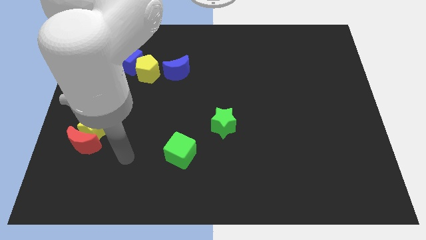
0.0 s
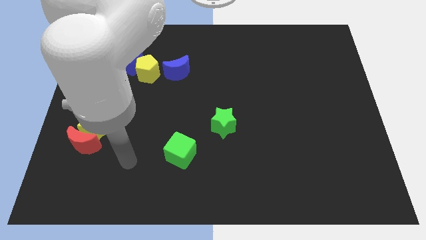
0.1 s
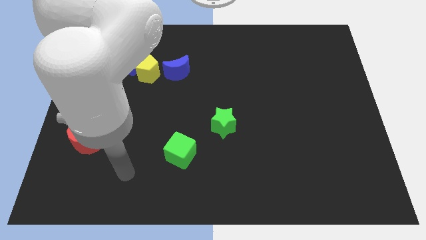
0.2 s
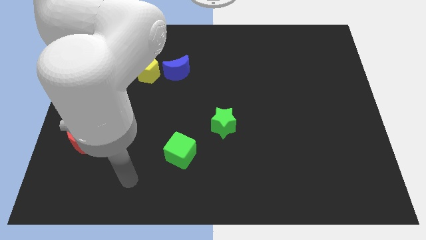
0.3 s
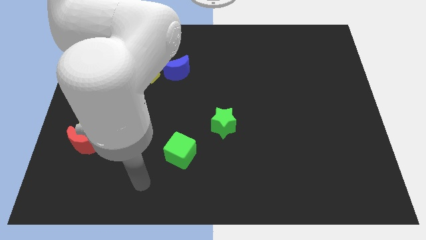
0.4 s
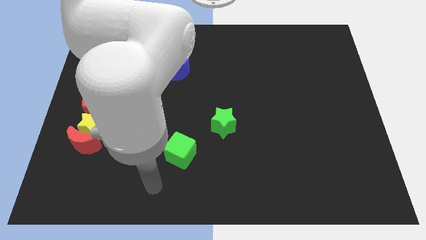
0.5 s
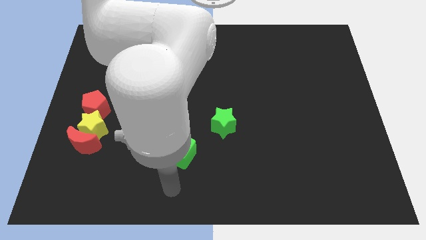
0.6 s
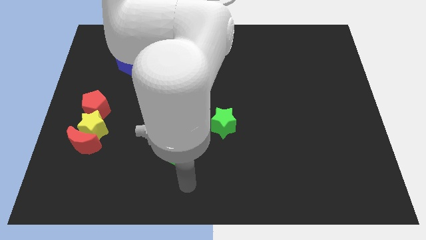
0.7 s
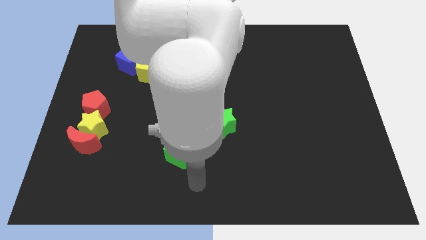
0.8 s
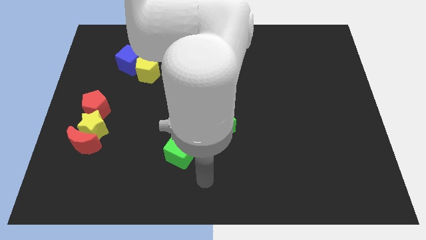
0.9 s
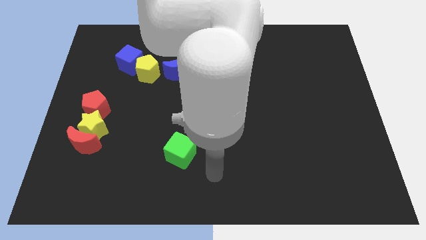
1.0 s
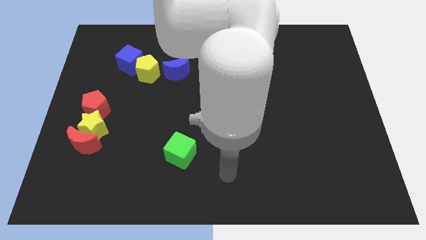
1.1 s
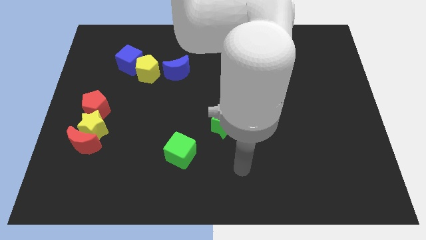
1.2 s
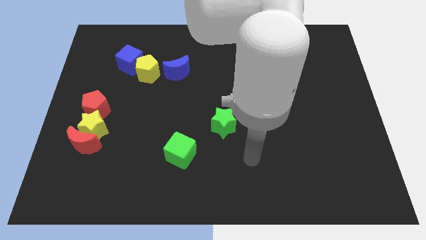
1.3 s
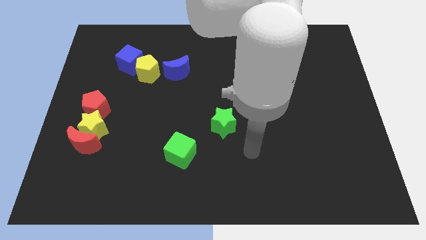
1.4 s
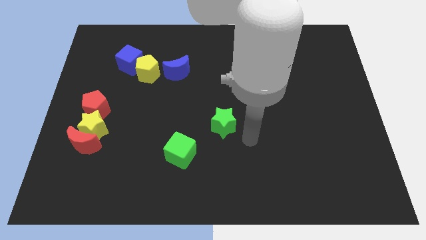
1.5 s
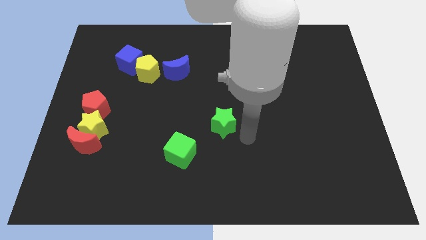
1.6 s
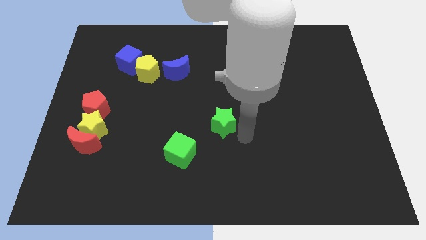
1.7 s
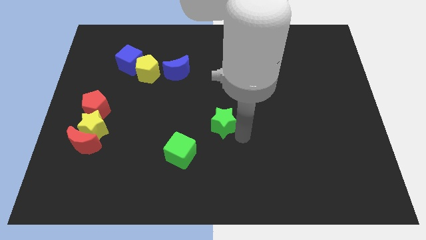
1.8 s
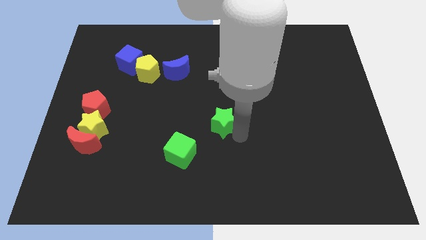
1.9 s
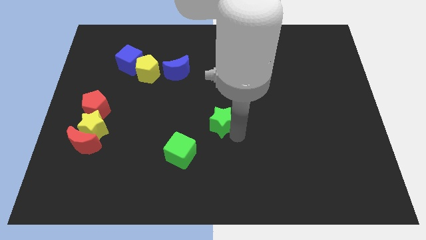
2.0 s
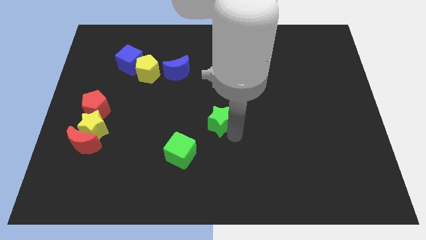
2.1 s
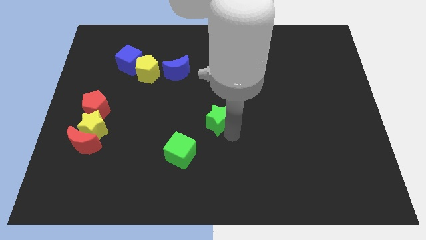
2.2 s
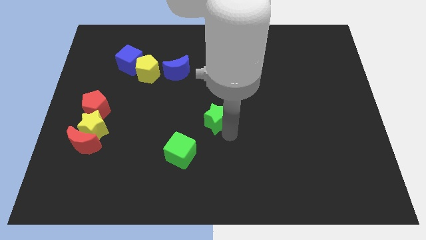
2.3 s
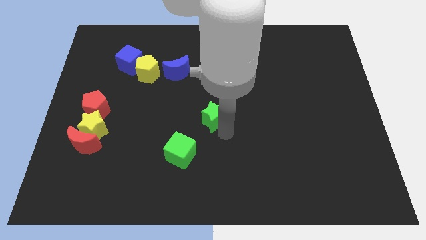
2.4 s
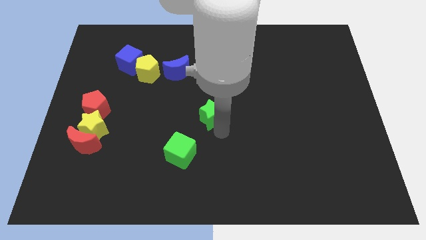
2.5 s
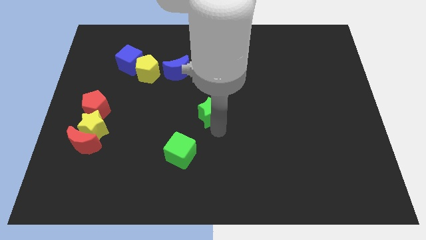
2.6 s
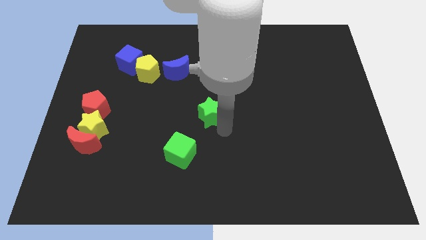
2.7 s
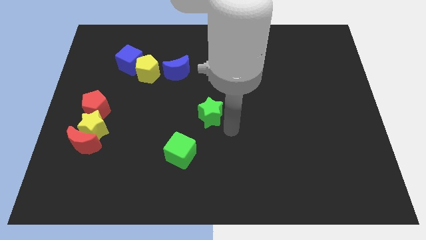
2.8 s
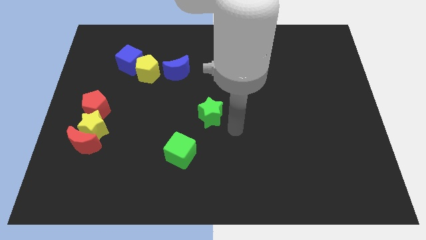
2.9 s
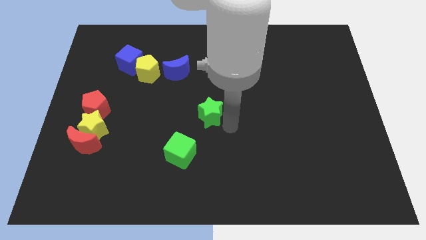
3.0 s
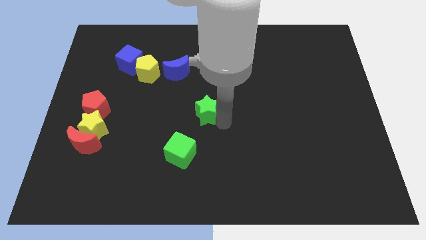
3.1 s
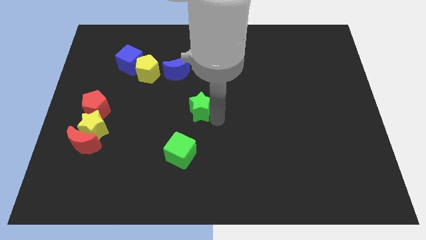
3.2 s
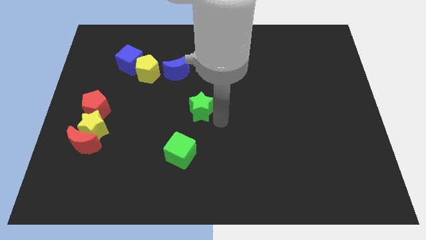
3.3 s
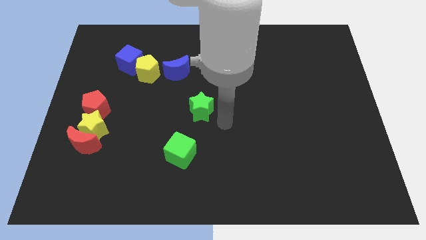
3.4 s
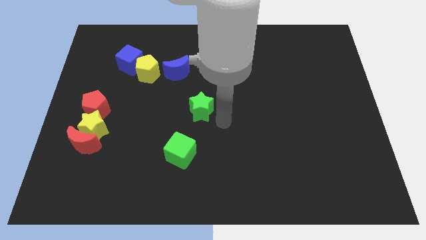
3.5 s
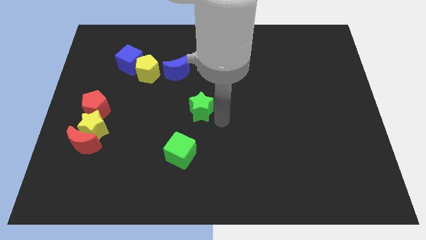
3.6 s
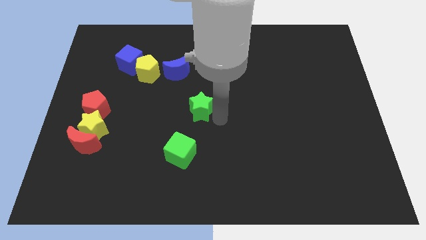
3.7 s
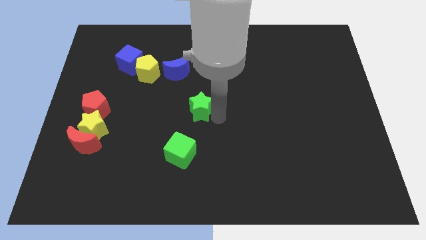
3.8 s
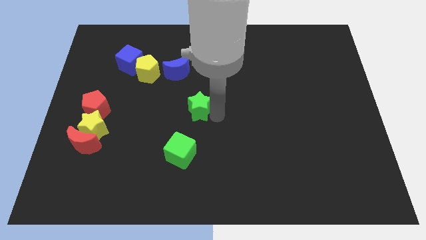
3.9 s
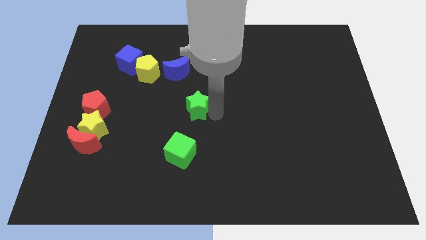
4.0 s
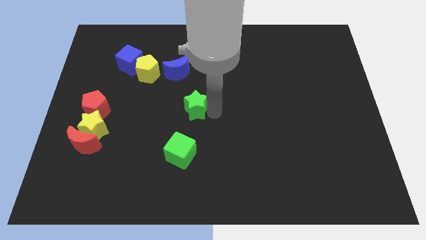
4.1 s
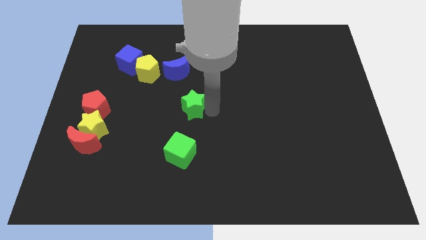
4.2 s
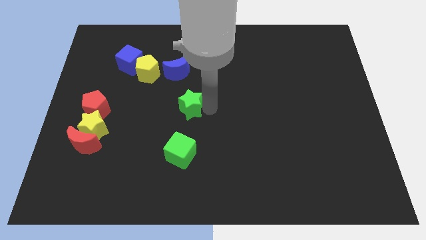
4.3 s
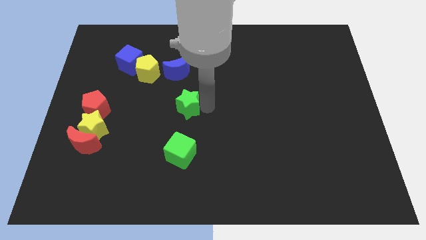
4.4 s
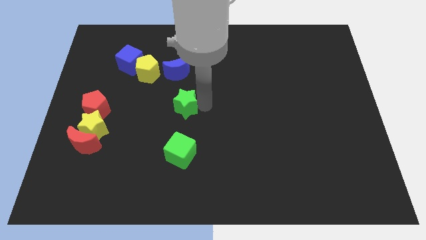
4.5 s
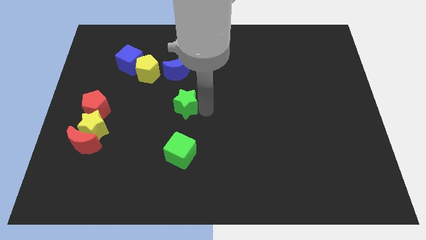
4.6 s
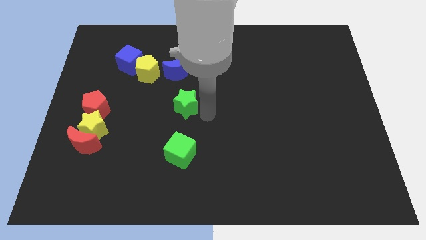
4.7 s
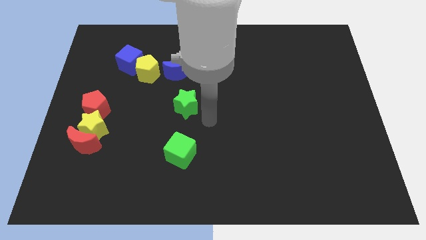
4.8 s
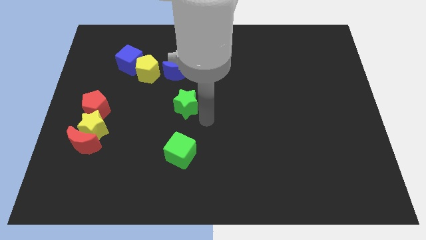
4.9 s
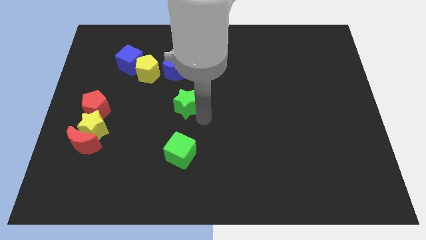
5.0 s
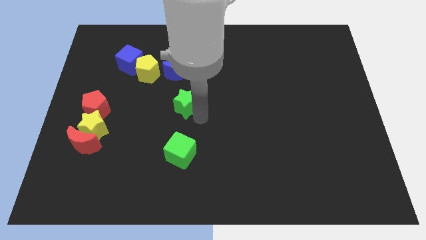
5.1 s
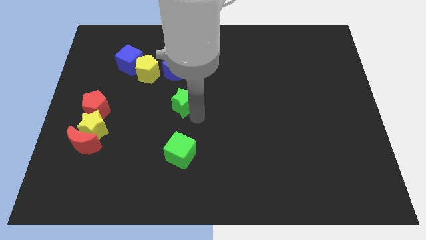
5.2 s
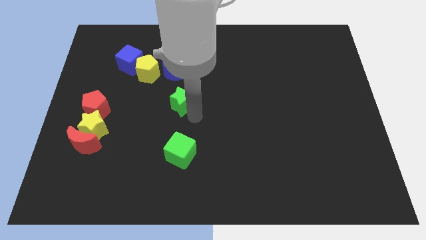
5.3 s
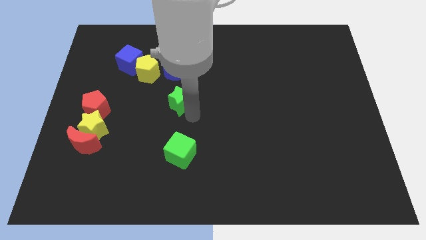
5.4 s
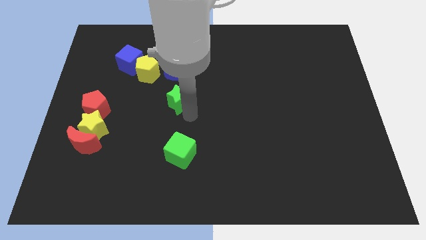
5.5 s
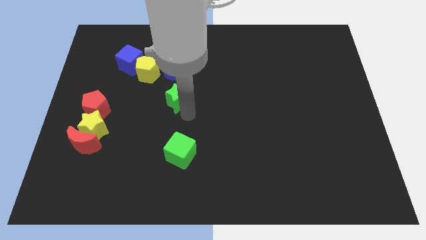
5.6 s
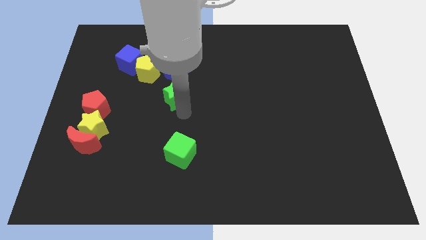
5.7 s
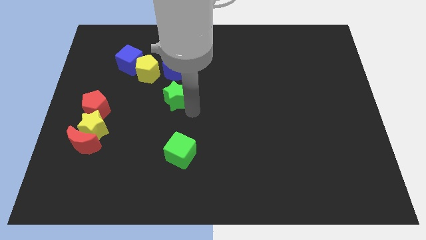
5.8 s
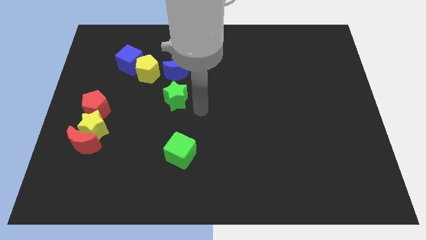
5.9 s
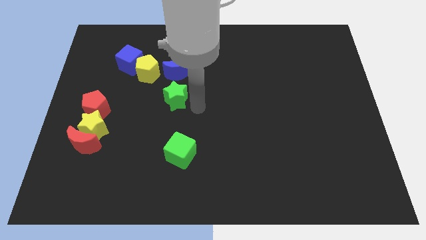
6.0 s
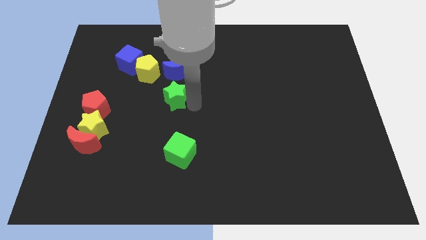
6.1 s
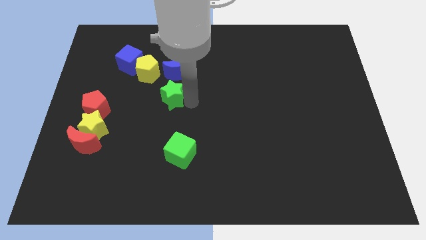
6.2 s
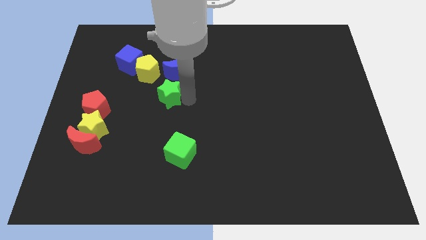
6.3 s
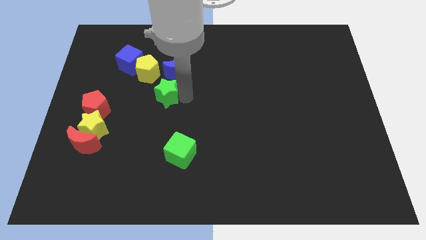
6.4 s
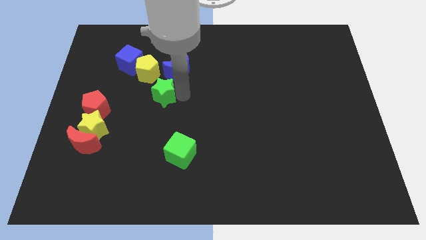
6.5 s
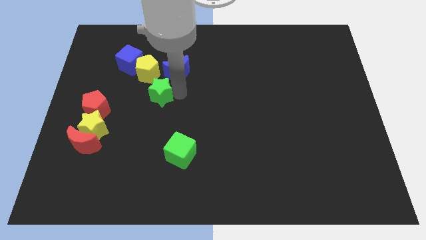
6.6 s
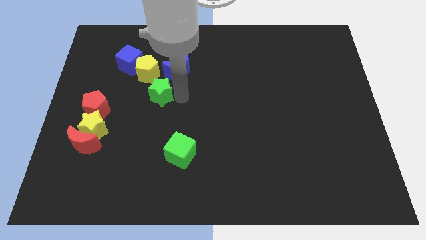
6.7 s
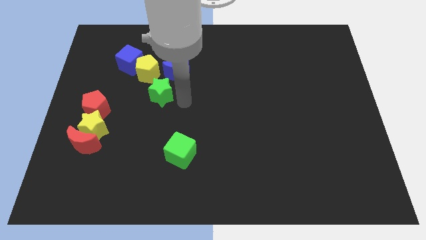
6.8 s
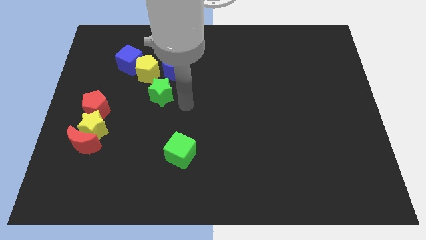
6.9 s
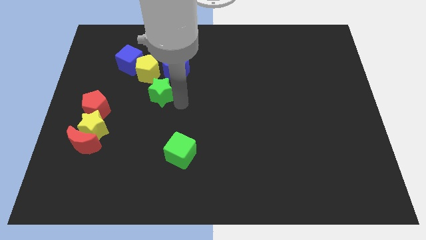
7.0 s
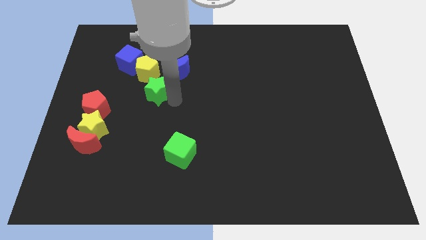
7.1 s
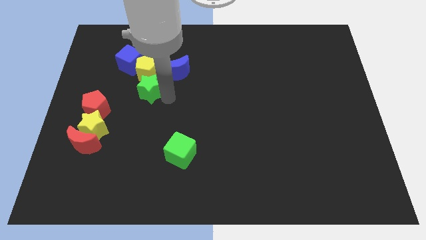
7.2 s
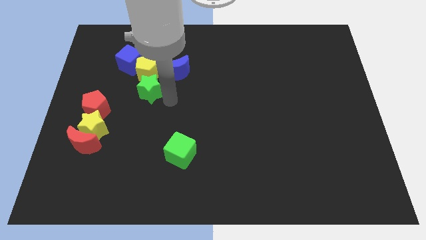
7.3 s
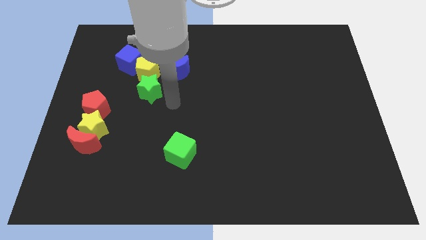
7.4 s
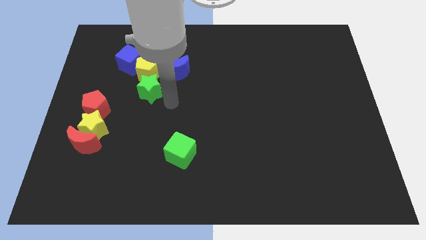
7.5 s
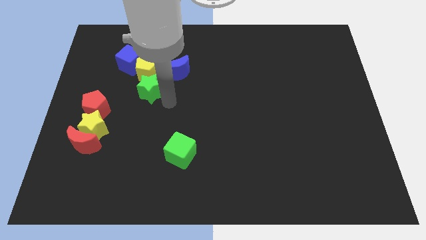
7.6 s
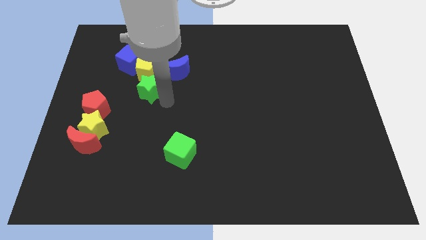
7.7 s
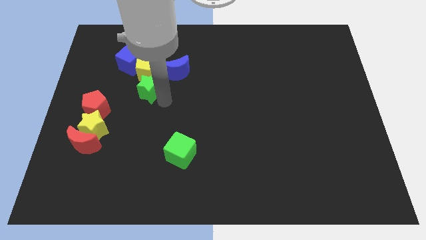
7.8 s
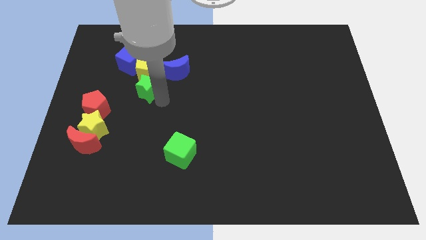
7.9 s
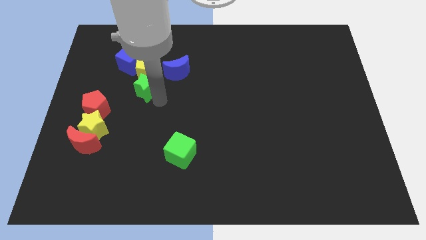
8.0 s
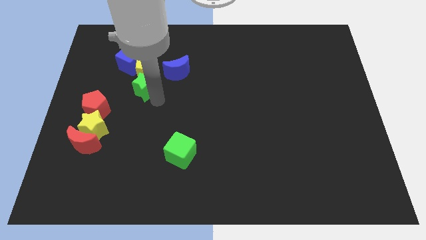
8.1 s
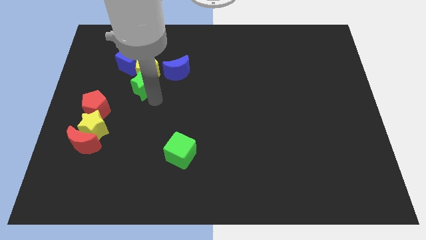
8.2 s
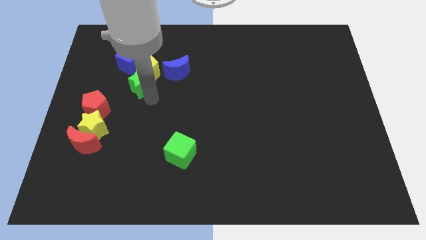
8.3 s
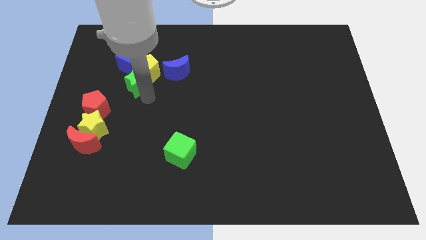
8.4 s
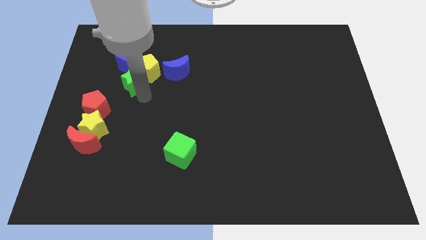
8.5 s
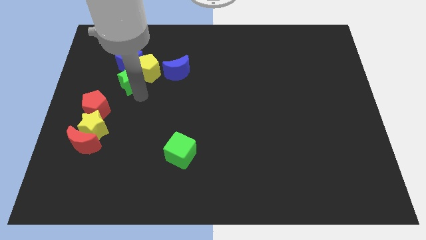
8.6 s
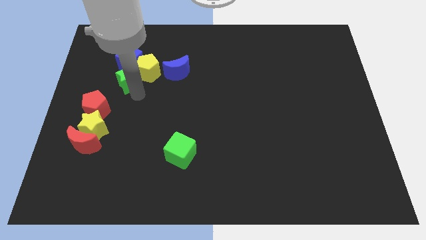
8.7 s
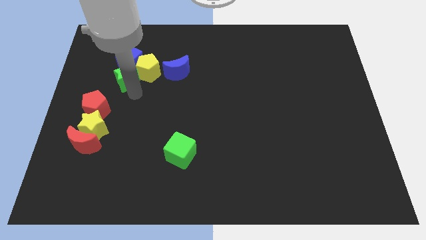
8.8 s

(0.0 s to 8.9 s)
slide the green star towards the blue cube
